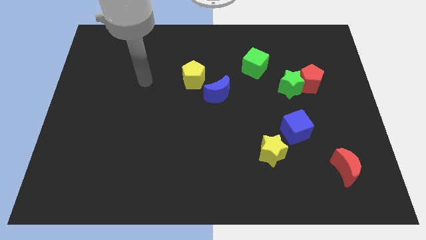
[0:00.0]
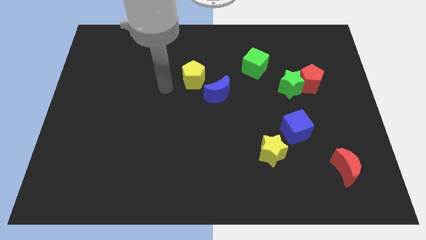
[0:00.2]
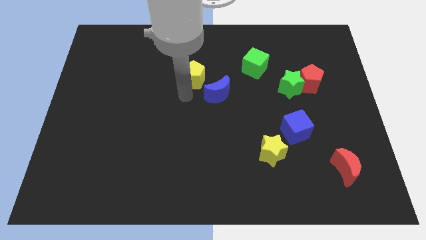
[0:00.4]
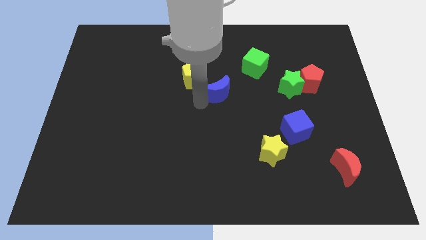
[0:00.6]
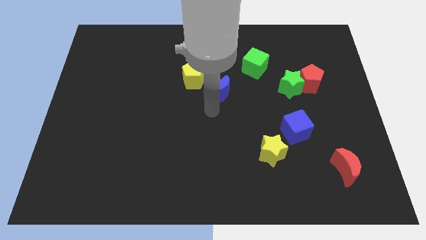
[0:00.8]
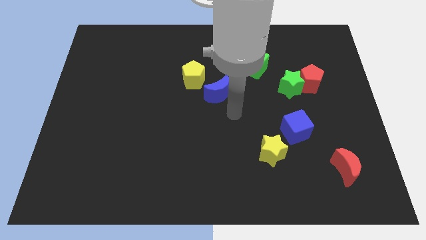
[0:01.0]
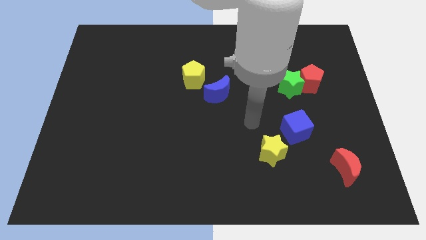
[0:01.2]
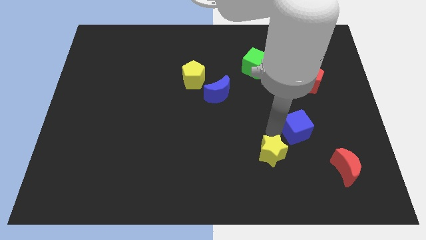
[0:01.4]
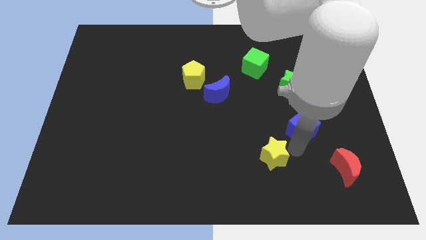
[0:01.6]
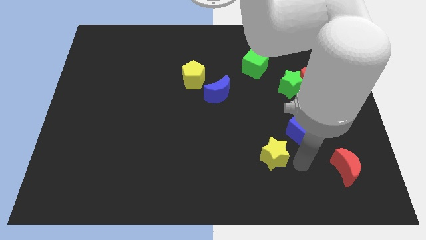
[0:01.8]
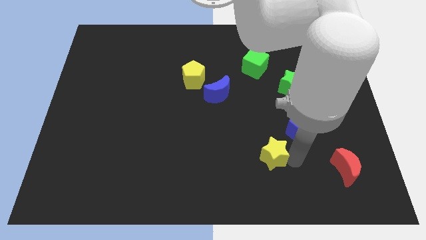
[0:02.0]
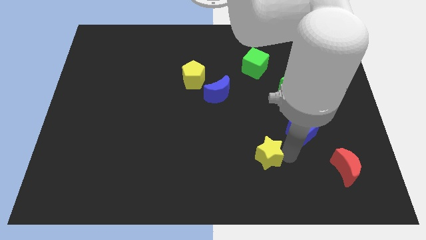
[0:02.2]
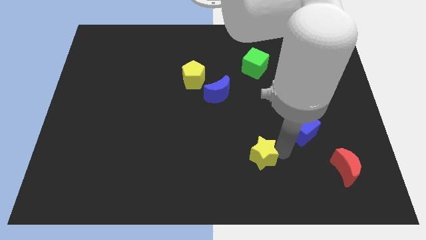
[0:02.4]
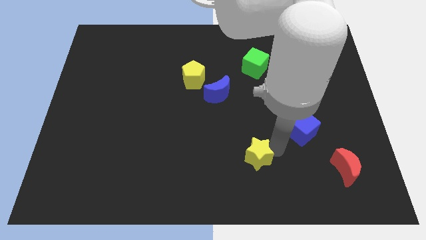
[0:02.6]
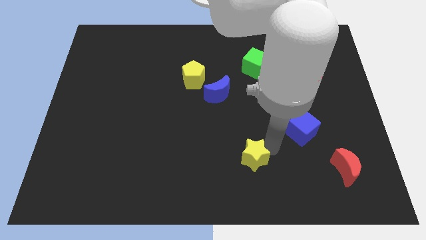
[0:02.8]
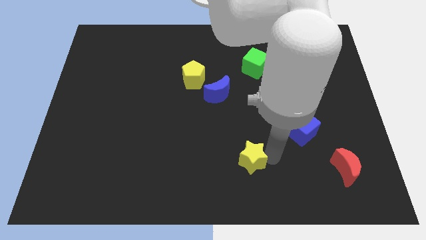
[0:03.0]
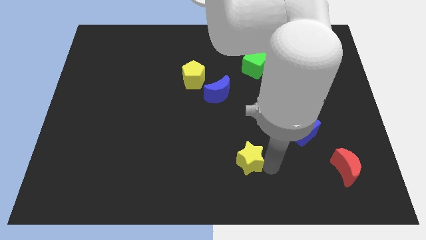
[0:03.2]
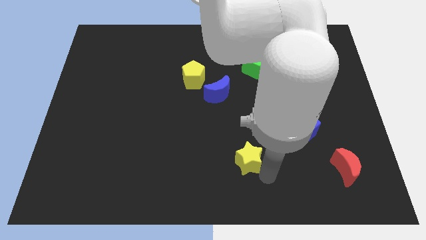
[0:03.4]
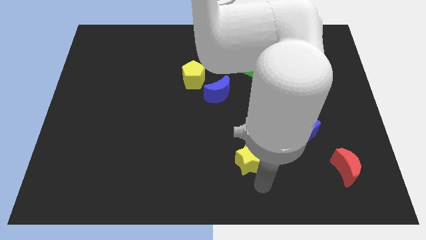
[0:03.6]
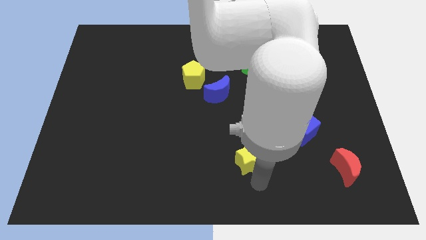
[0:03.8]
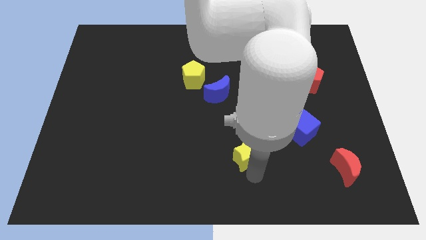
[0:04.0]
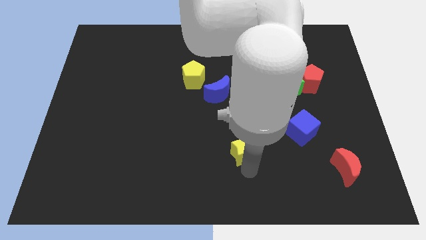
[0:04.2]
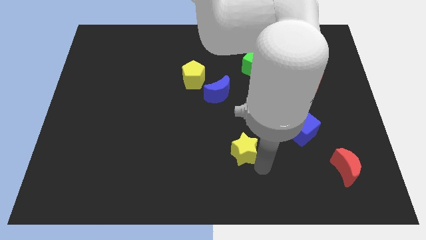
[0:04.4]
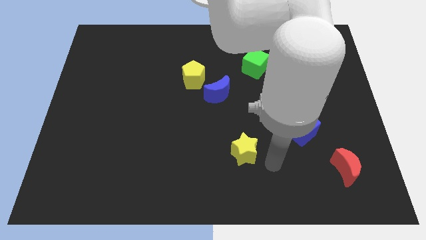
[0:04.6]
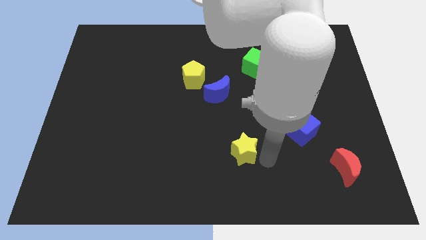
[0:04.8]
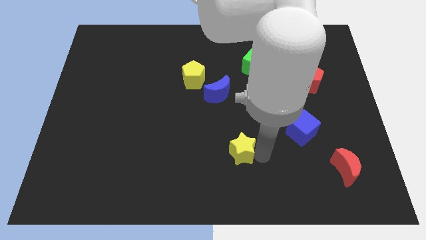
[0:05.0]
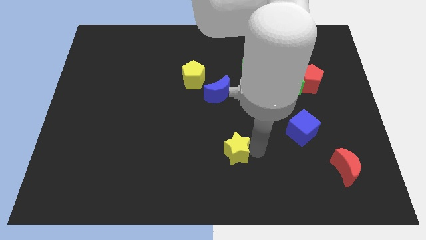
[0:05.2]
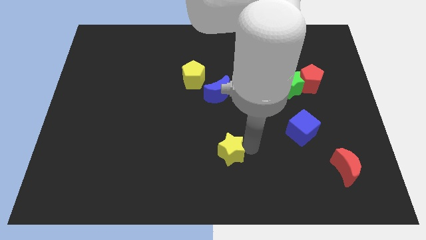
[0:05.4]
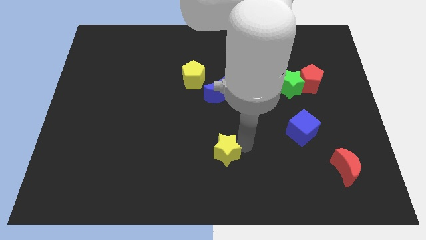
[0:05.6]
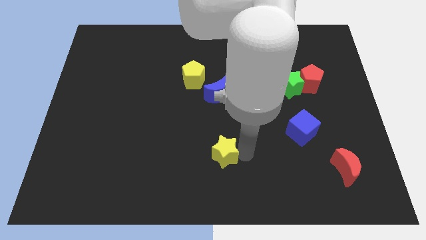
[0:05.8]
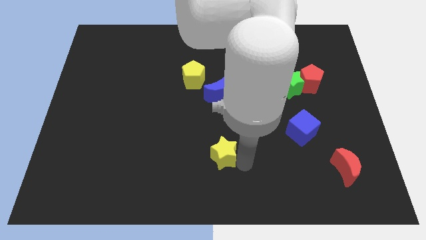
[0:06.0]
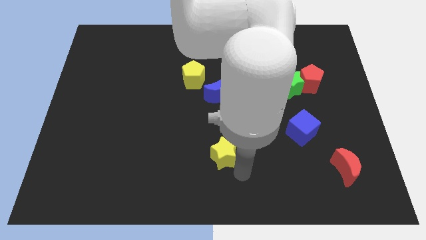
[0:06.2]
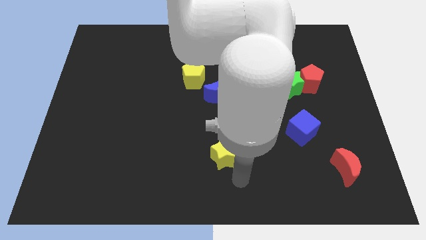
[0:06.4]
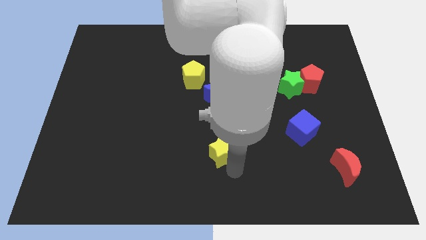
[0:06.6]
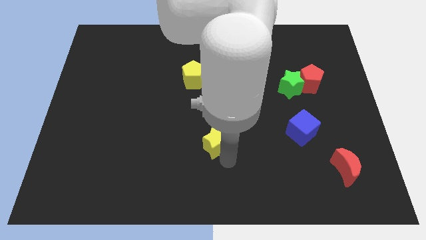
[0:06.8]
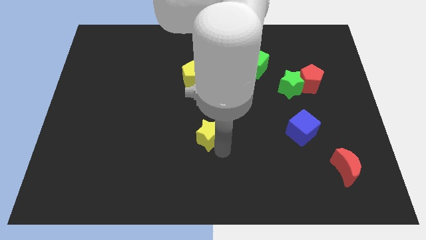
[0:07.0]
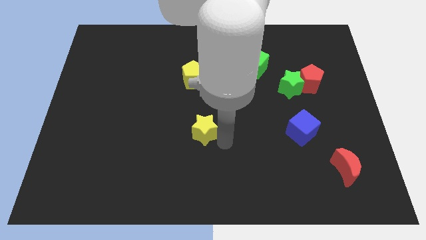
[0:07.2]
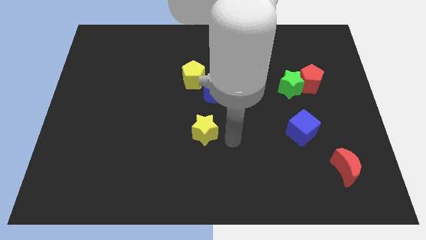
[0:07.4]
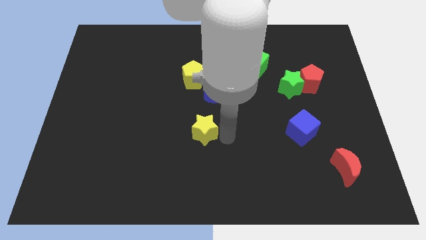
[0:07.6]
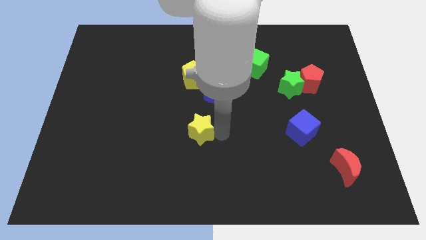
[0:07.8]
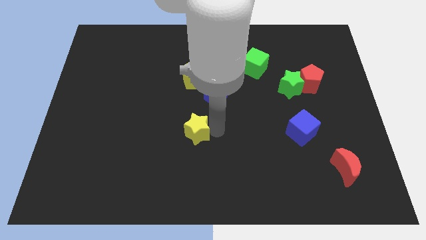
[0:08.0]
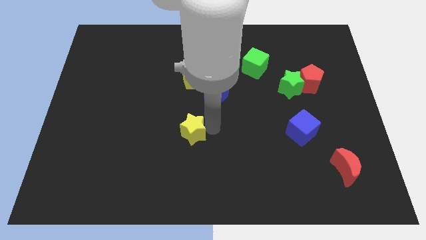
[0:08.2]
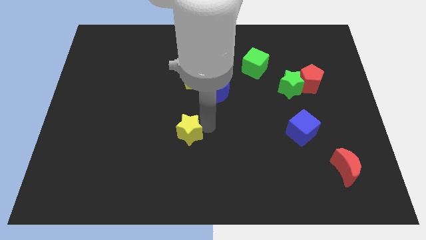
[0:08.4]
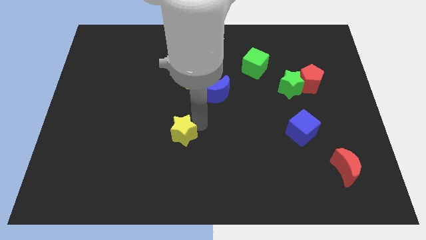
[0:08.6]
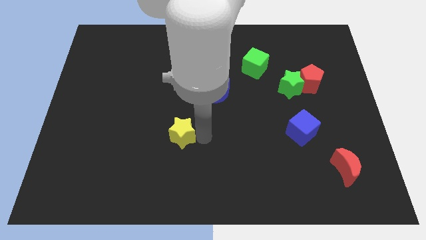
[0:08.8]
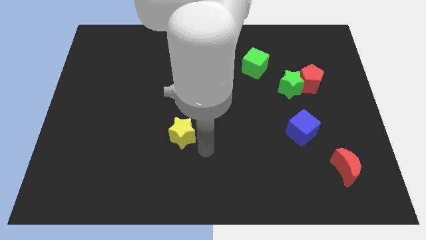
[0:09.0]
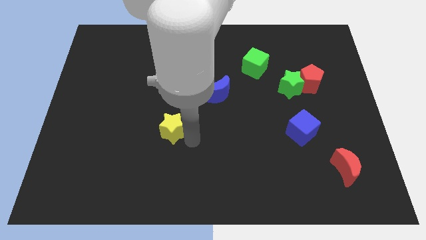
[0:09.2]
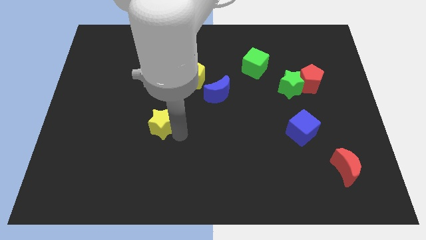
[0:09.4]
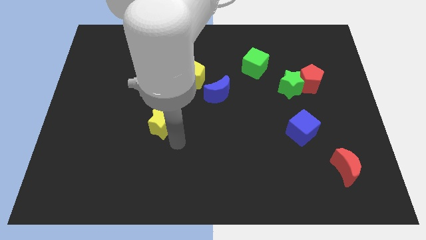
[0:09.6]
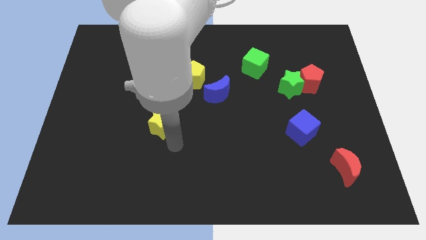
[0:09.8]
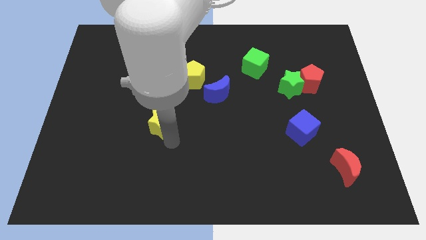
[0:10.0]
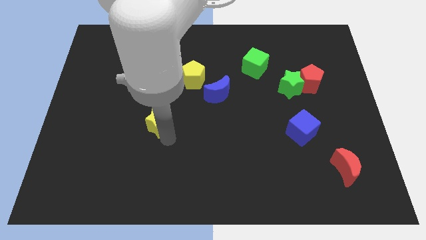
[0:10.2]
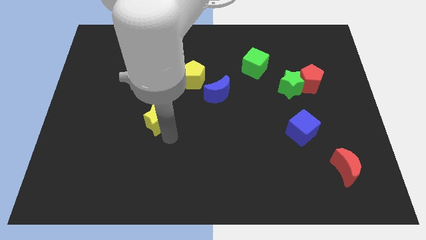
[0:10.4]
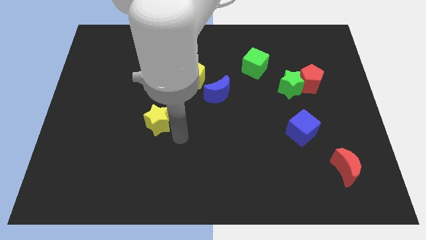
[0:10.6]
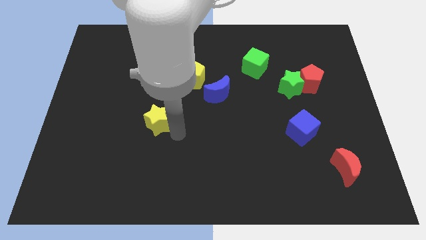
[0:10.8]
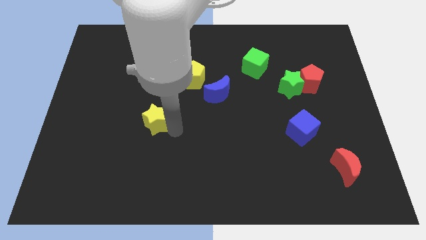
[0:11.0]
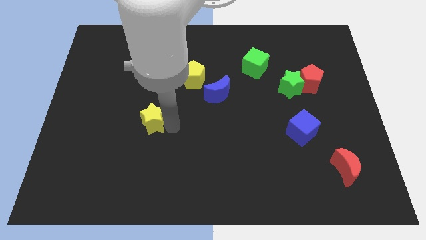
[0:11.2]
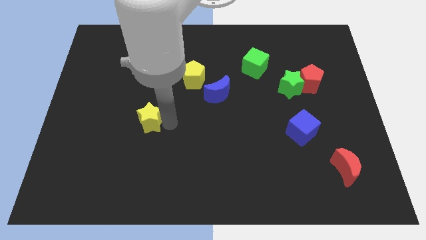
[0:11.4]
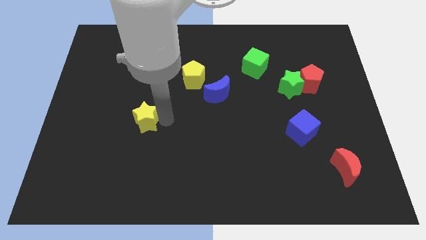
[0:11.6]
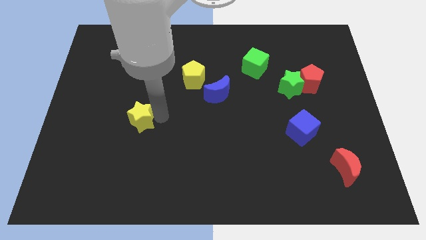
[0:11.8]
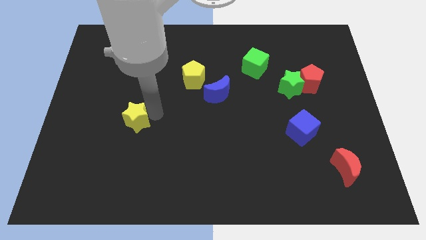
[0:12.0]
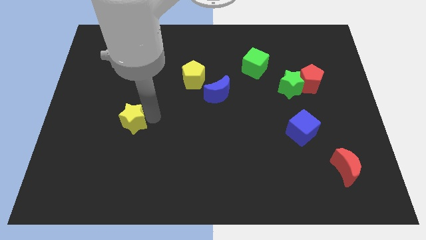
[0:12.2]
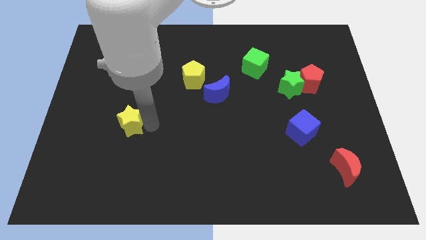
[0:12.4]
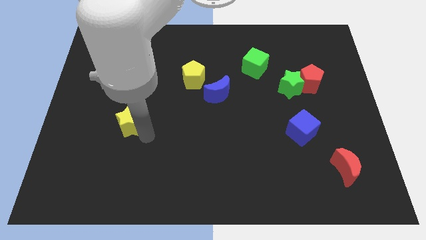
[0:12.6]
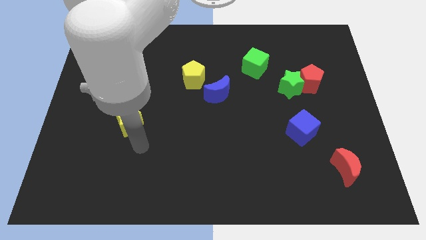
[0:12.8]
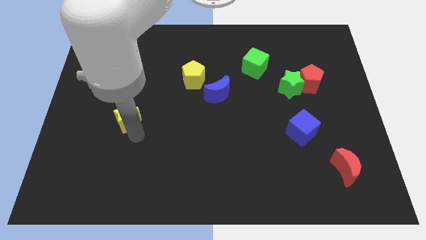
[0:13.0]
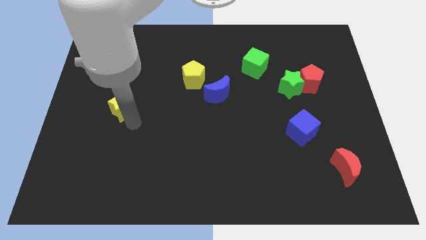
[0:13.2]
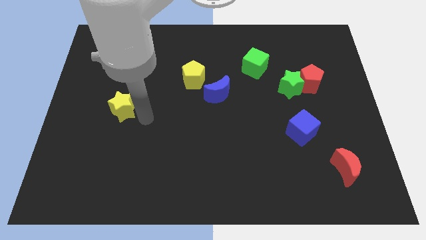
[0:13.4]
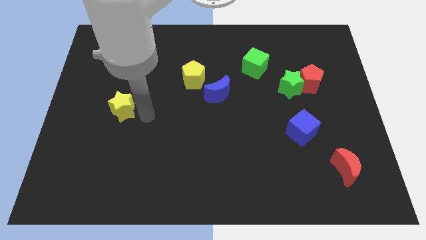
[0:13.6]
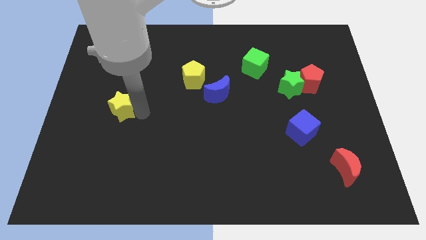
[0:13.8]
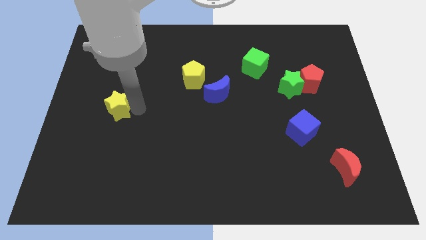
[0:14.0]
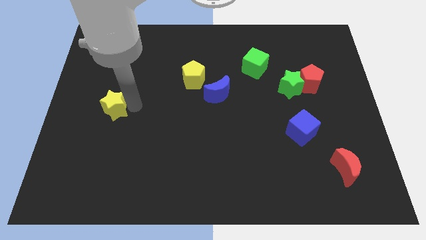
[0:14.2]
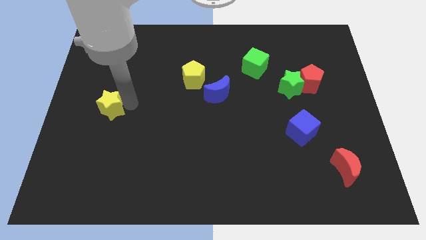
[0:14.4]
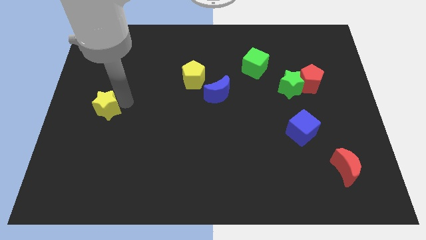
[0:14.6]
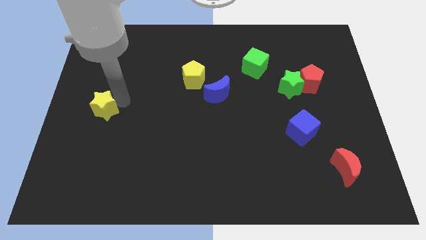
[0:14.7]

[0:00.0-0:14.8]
move the yellow star to the left side of the board
